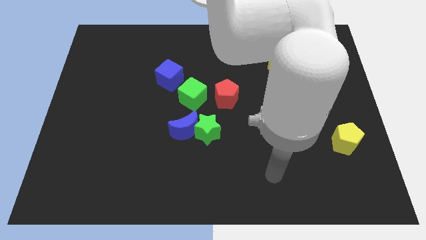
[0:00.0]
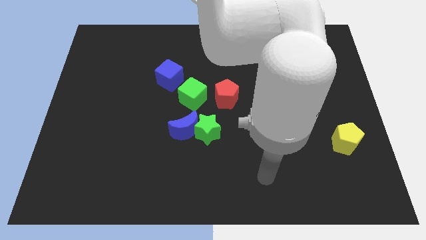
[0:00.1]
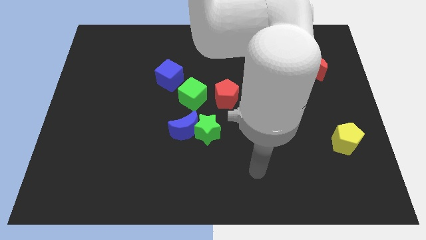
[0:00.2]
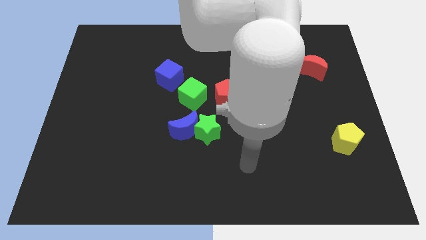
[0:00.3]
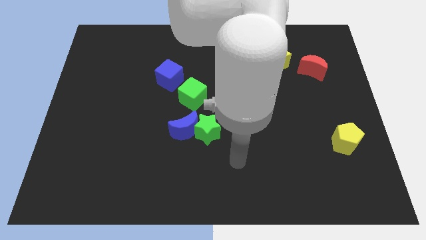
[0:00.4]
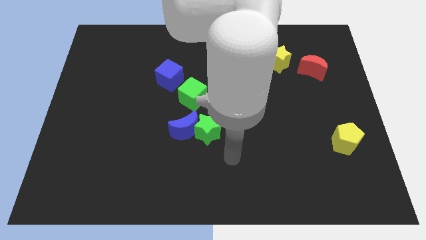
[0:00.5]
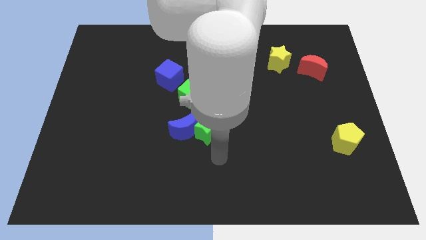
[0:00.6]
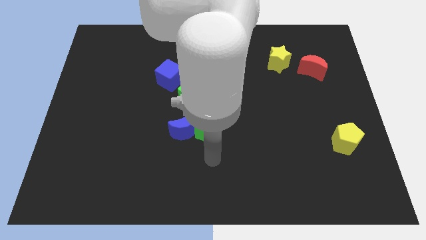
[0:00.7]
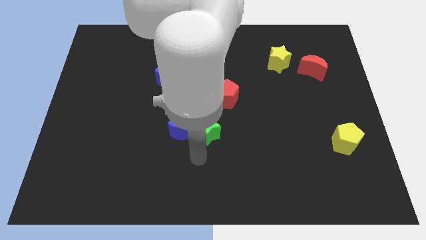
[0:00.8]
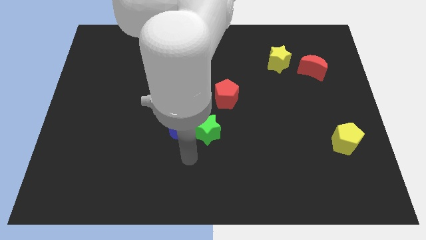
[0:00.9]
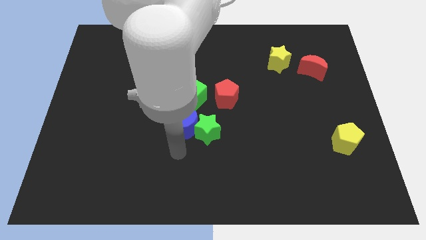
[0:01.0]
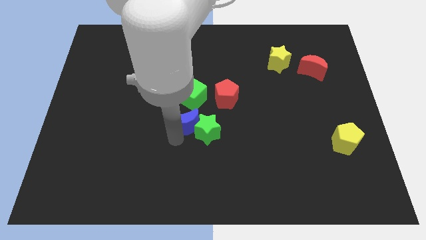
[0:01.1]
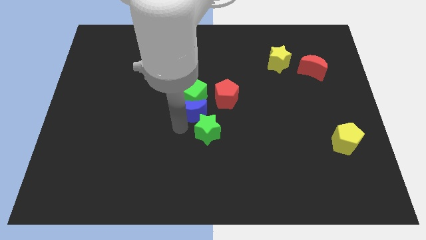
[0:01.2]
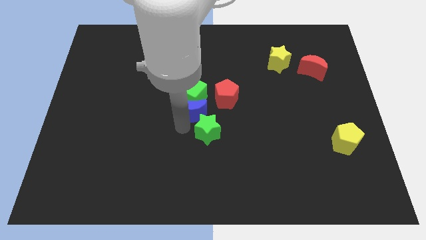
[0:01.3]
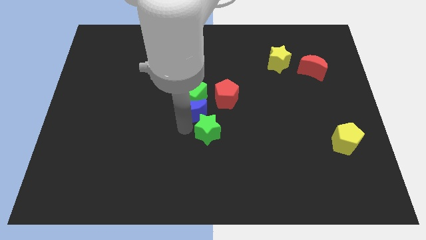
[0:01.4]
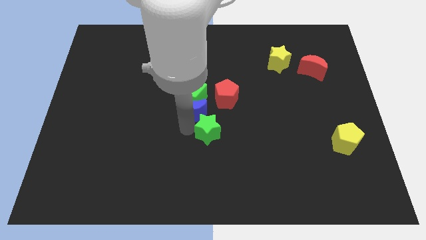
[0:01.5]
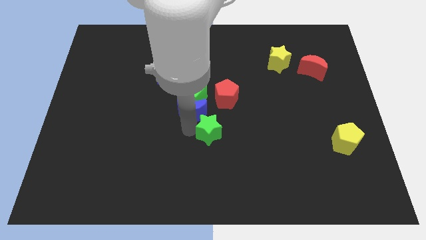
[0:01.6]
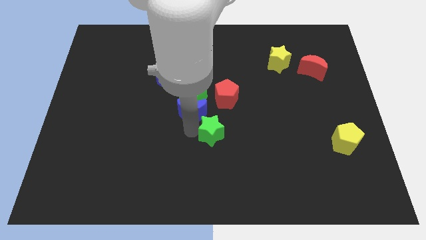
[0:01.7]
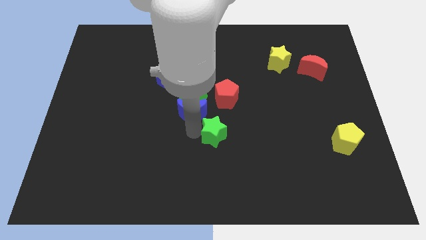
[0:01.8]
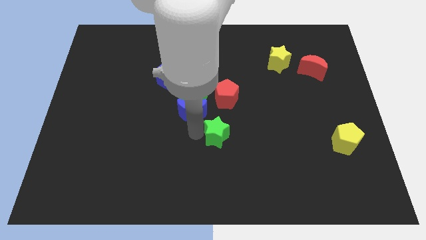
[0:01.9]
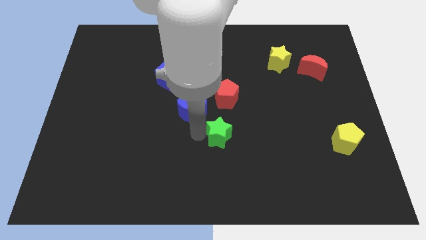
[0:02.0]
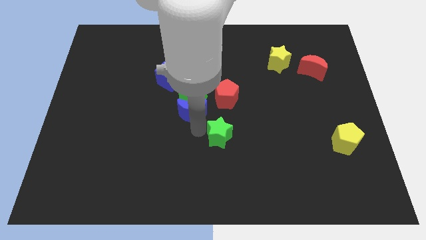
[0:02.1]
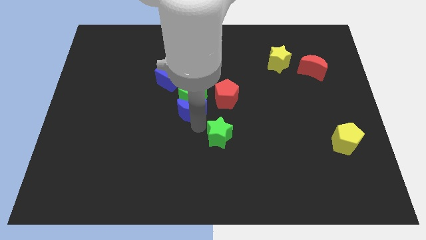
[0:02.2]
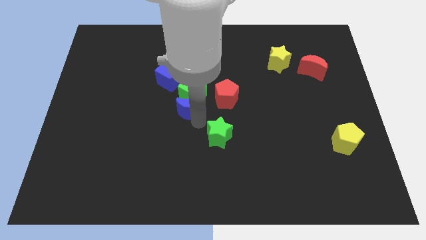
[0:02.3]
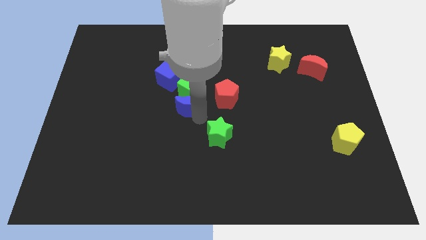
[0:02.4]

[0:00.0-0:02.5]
separate the green star from the blue moon

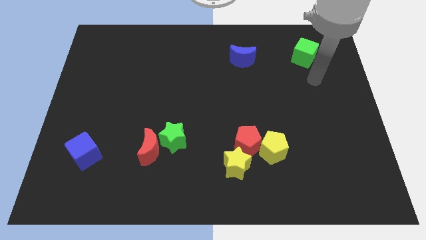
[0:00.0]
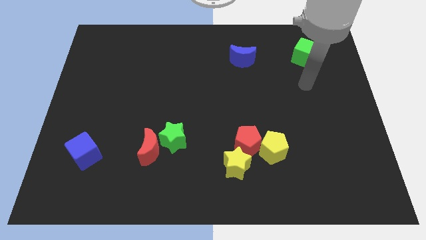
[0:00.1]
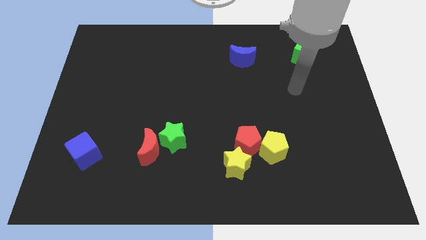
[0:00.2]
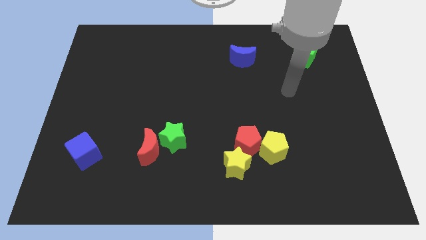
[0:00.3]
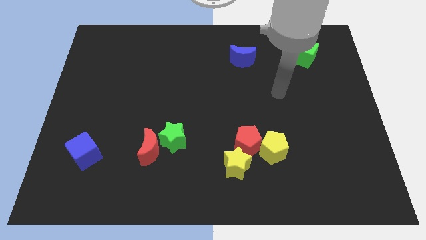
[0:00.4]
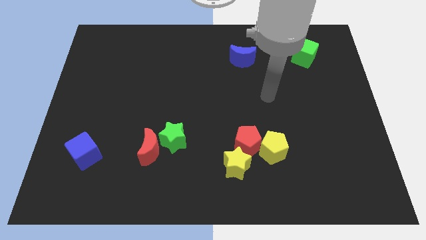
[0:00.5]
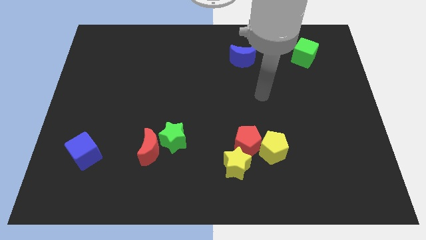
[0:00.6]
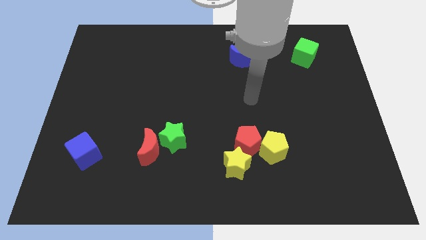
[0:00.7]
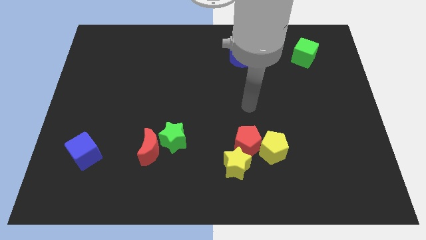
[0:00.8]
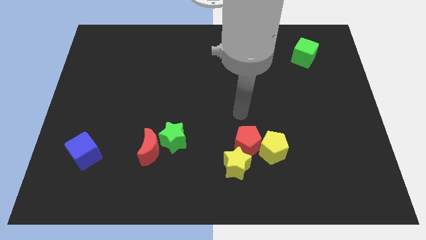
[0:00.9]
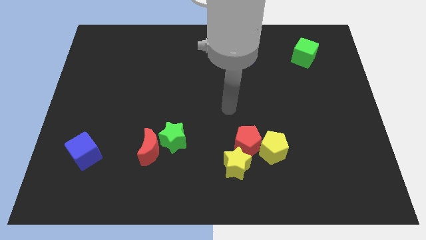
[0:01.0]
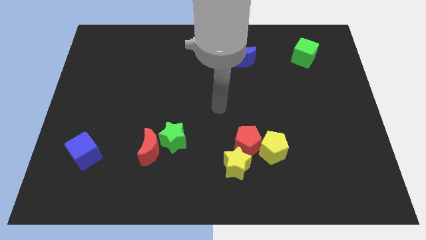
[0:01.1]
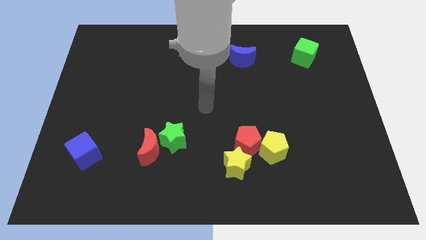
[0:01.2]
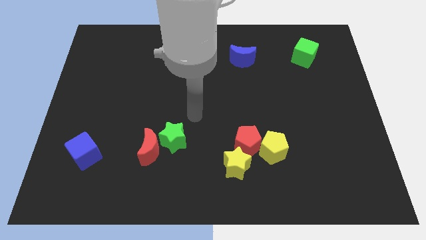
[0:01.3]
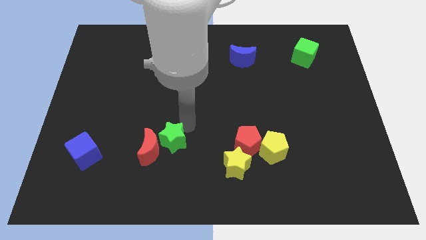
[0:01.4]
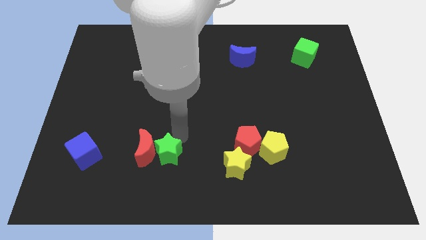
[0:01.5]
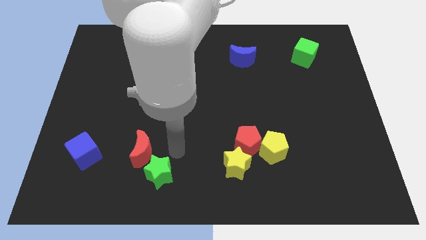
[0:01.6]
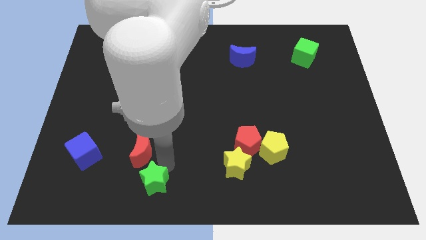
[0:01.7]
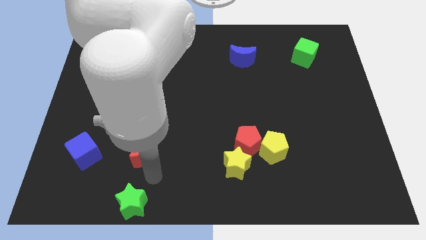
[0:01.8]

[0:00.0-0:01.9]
pull the red moon apart from the green star

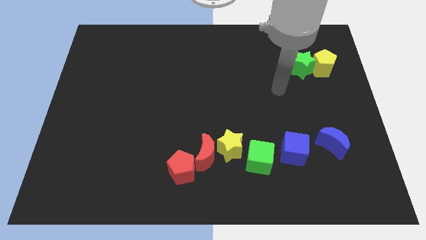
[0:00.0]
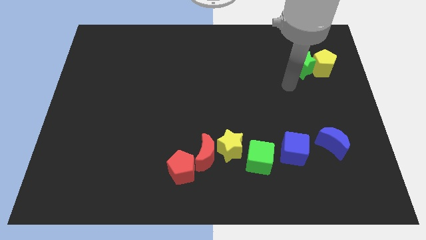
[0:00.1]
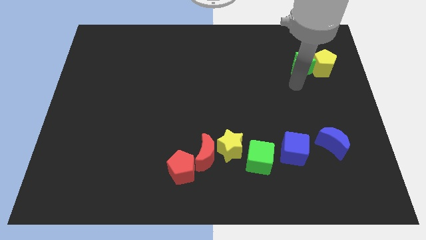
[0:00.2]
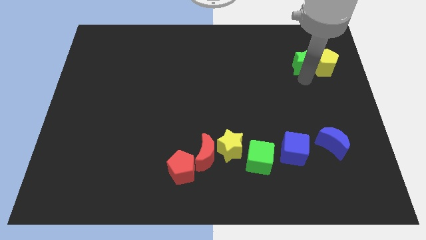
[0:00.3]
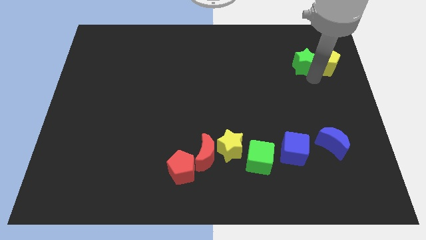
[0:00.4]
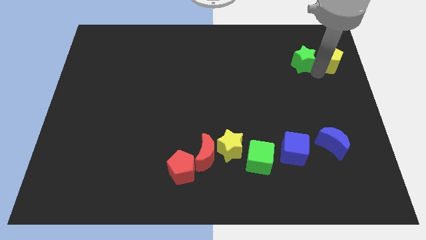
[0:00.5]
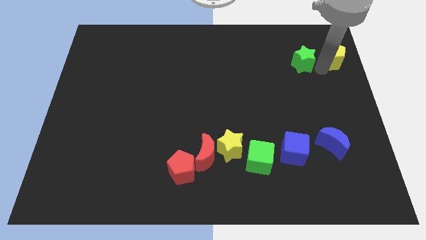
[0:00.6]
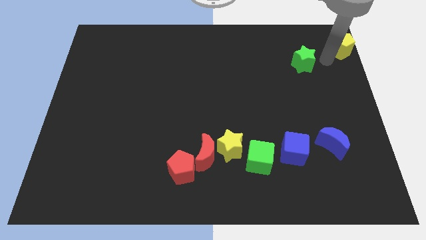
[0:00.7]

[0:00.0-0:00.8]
separate the green star from the yellow pentagon

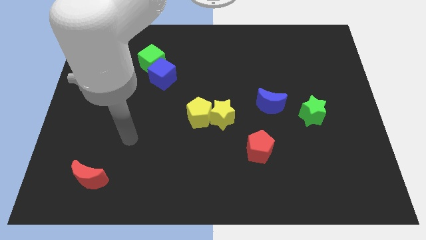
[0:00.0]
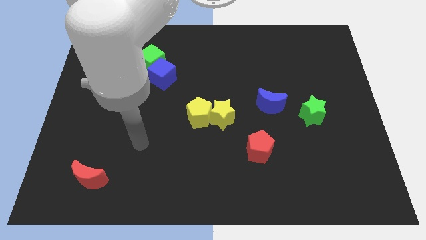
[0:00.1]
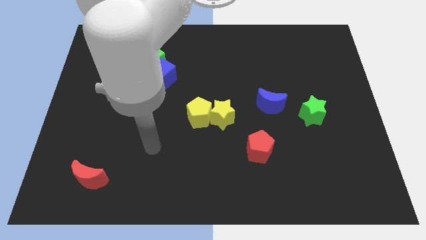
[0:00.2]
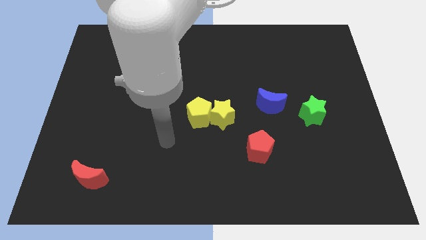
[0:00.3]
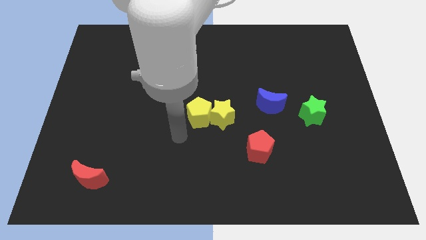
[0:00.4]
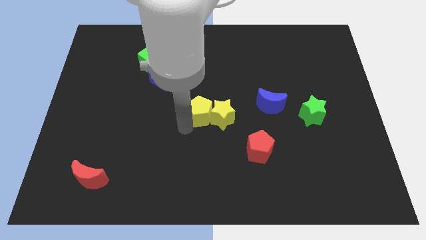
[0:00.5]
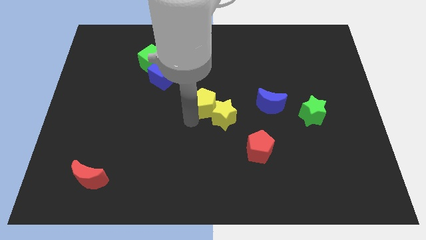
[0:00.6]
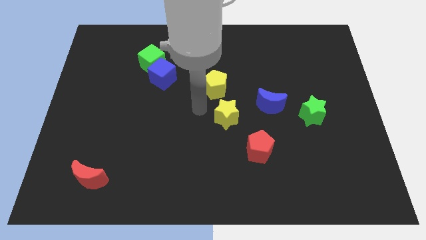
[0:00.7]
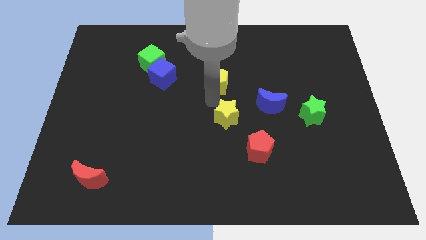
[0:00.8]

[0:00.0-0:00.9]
separate the yellow star from the yellow pentagon

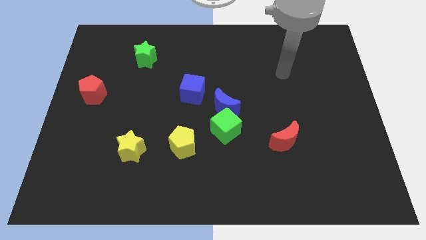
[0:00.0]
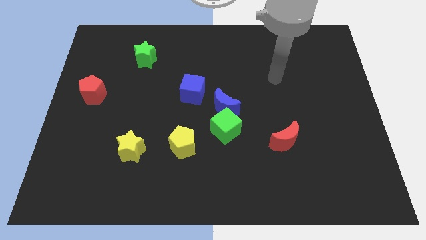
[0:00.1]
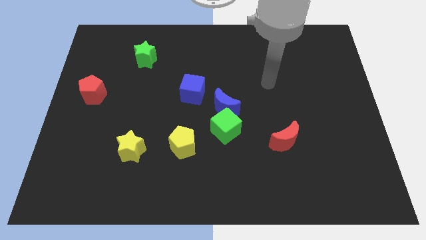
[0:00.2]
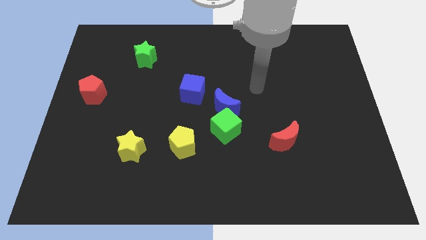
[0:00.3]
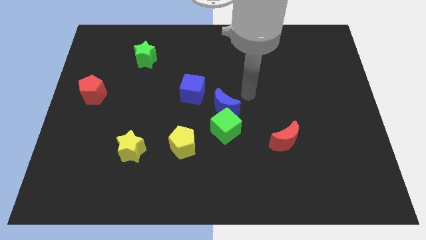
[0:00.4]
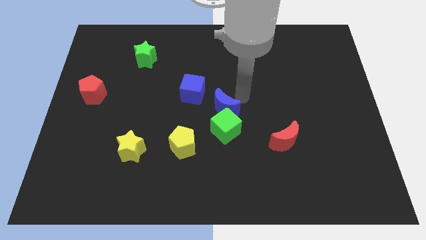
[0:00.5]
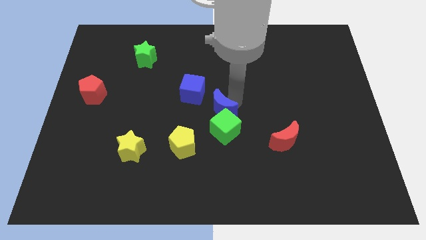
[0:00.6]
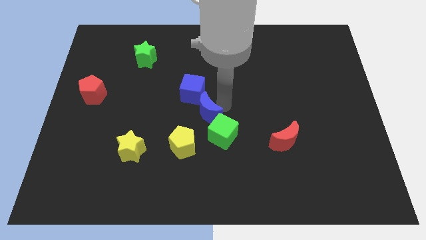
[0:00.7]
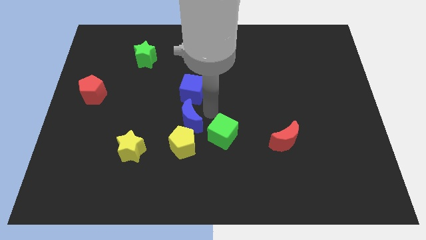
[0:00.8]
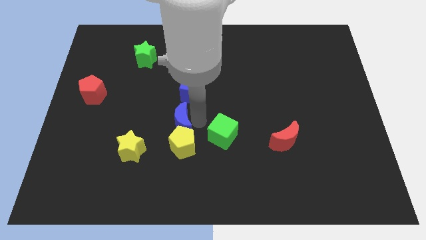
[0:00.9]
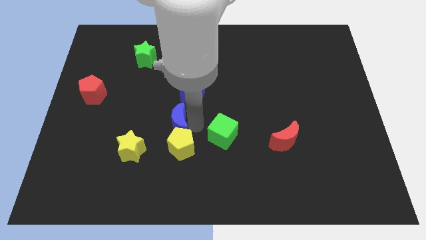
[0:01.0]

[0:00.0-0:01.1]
move the green cube away from the blue moon

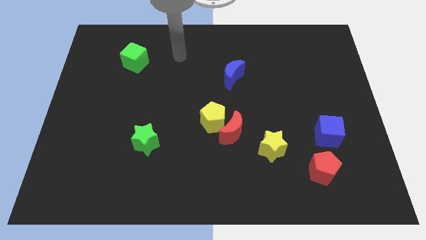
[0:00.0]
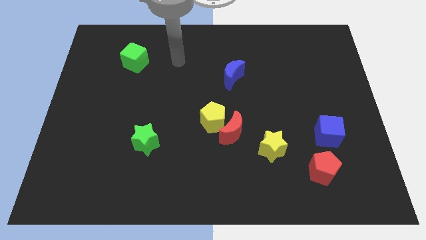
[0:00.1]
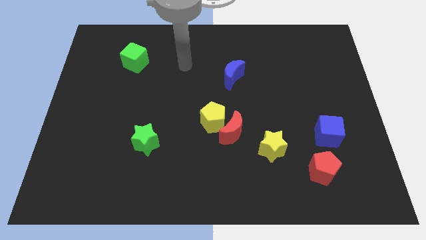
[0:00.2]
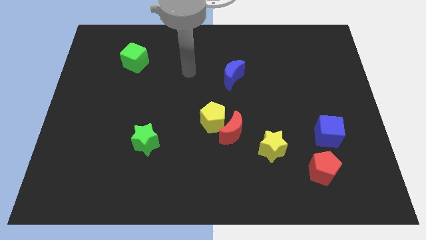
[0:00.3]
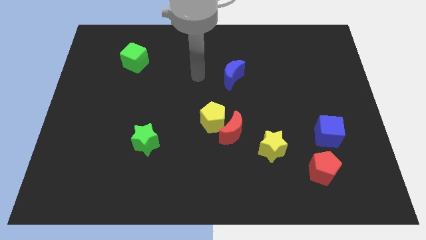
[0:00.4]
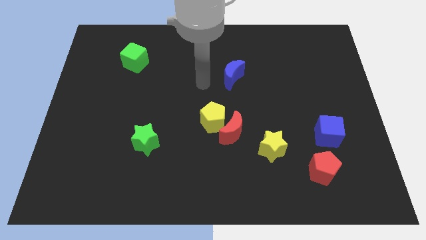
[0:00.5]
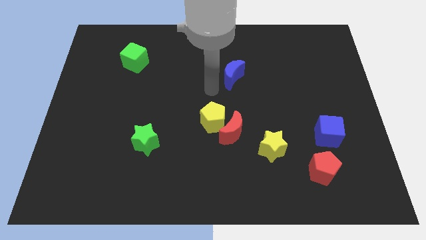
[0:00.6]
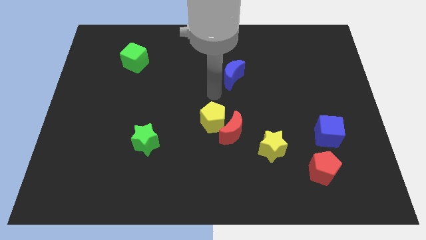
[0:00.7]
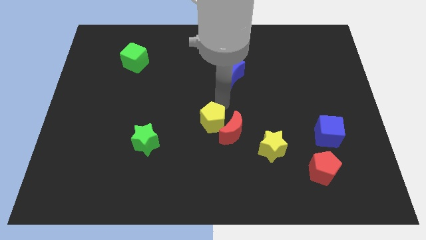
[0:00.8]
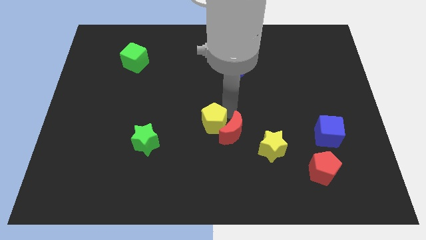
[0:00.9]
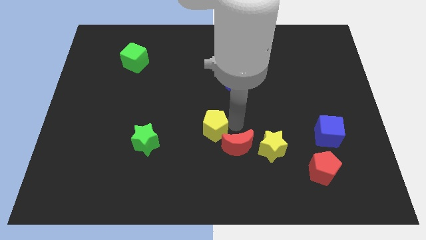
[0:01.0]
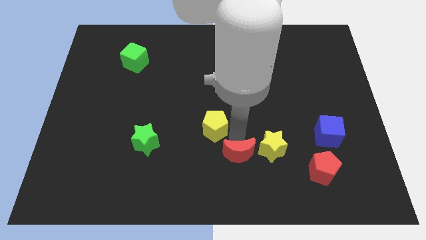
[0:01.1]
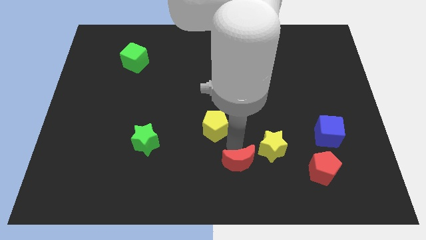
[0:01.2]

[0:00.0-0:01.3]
separate the yellow pentagon from the red moon

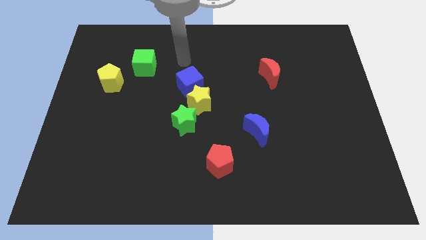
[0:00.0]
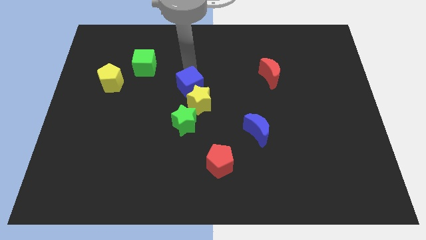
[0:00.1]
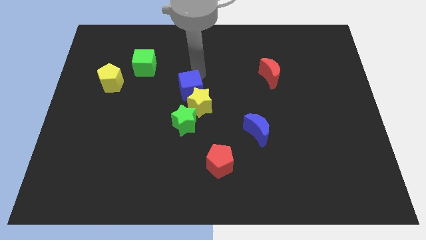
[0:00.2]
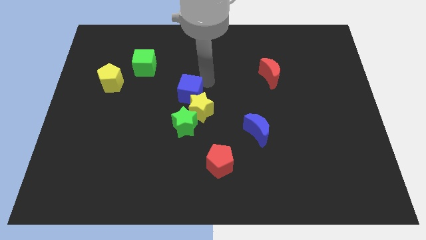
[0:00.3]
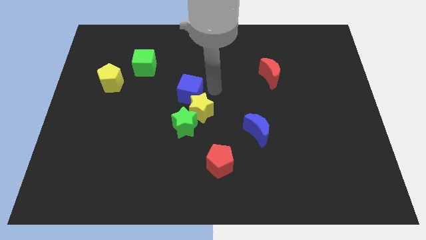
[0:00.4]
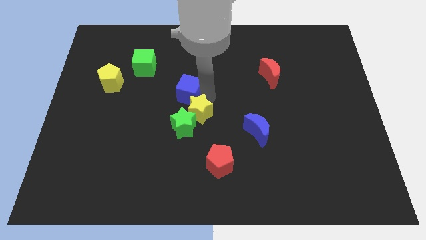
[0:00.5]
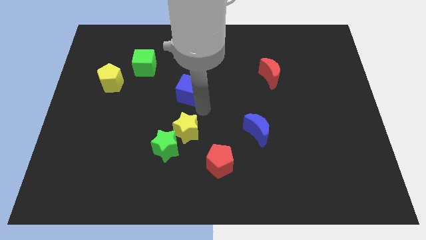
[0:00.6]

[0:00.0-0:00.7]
separate the blue cube from the yellow star

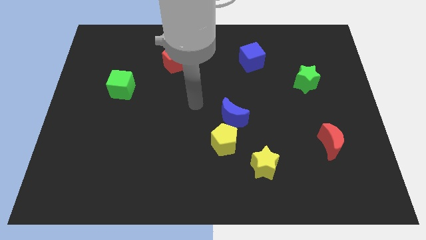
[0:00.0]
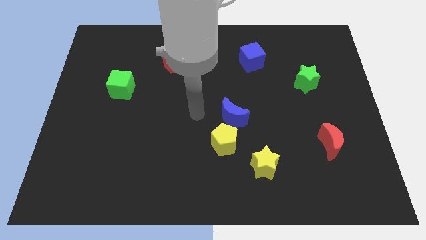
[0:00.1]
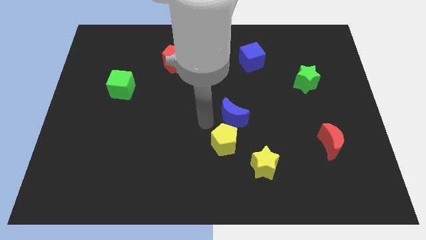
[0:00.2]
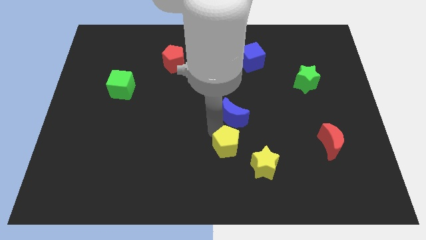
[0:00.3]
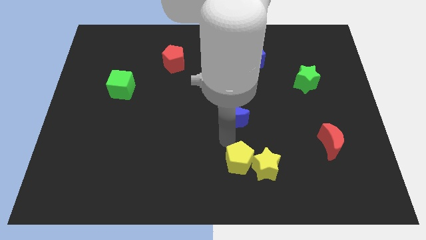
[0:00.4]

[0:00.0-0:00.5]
move the blue moon away from the yellow pentagon
